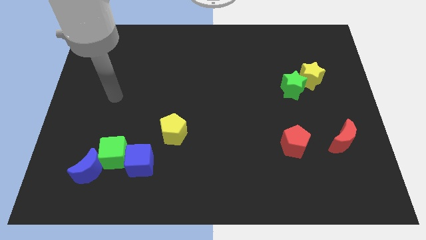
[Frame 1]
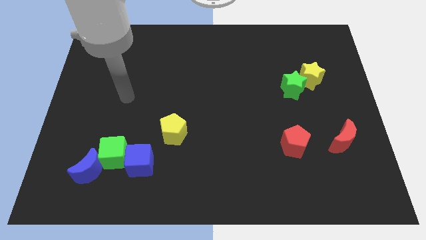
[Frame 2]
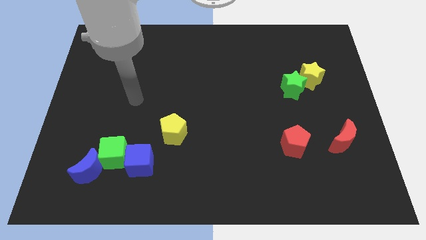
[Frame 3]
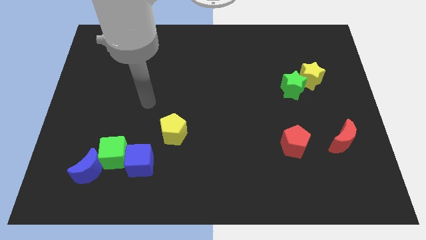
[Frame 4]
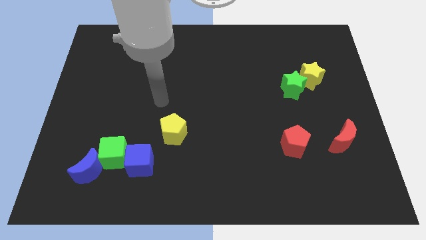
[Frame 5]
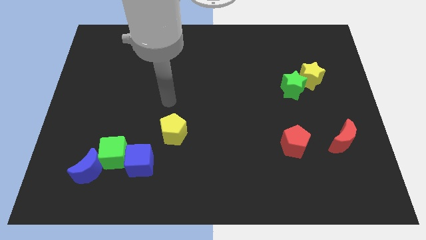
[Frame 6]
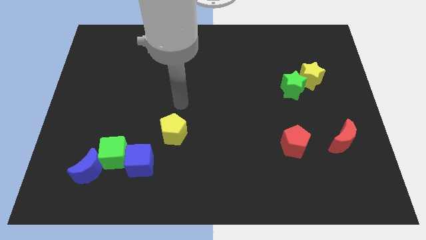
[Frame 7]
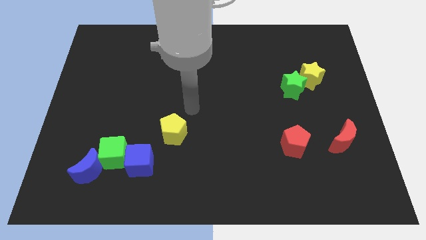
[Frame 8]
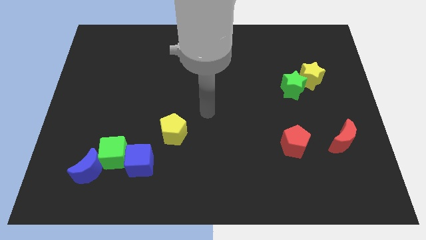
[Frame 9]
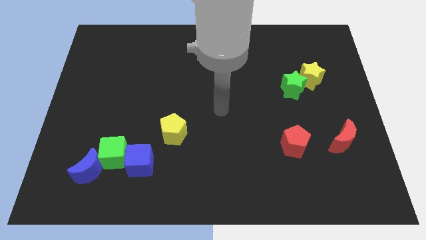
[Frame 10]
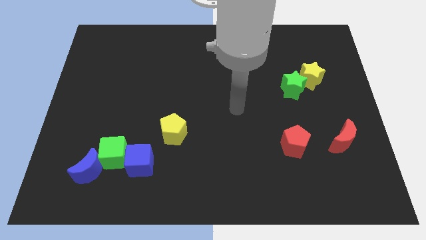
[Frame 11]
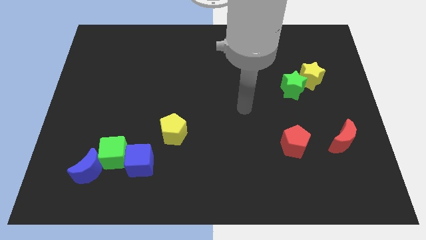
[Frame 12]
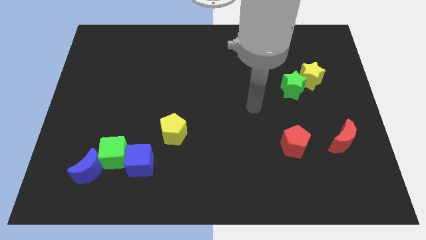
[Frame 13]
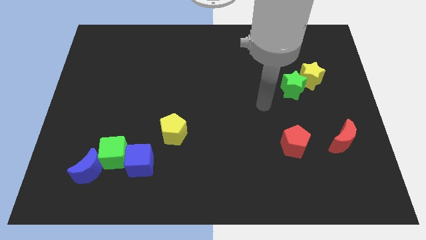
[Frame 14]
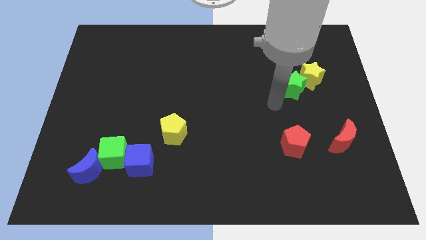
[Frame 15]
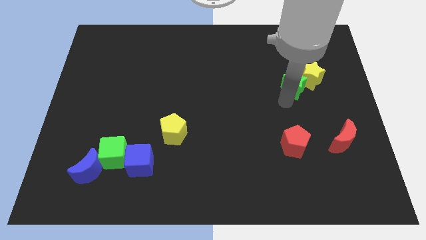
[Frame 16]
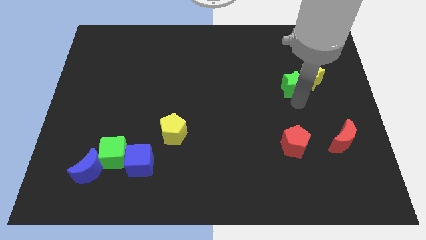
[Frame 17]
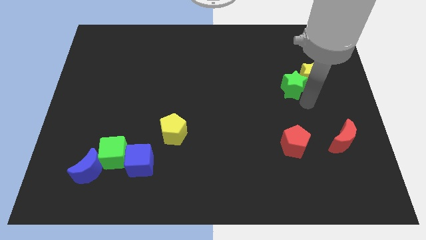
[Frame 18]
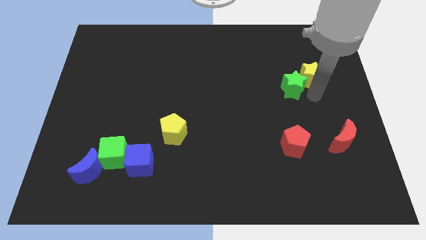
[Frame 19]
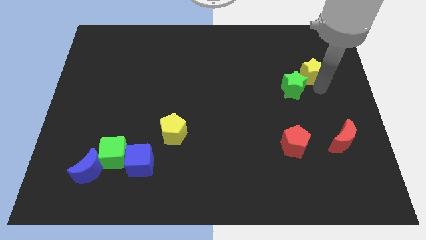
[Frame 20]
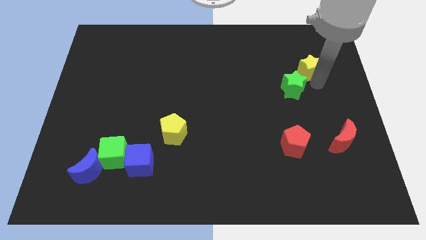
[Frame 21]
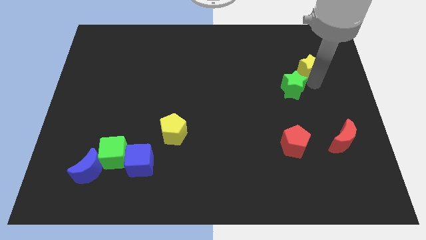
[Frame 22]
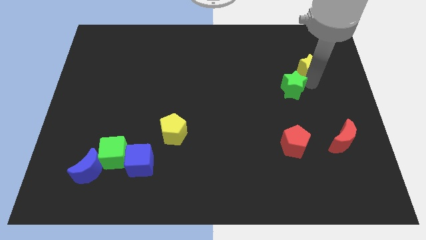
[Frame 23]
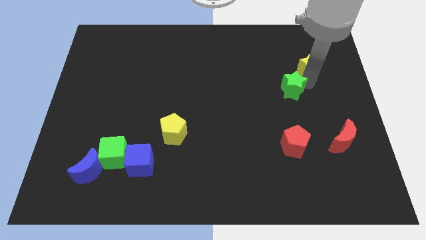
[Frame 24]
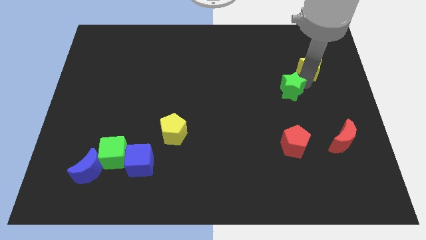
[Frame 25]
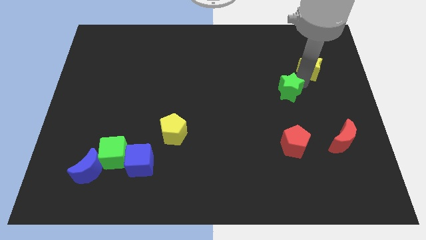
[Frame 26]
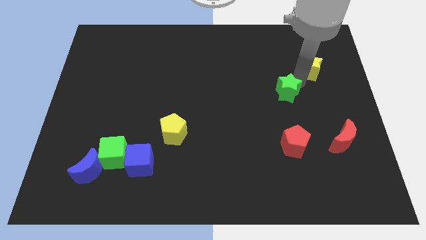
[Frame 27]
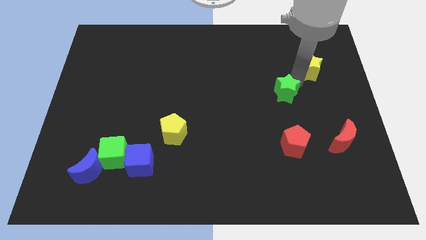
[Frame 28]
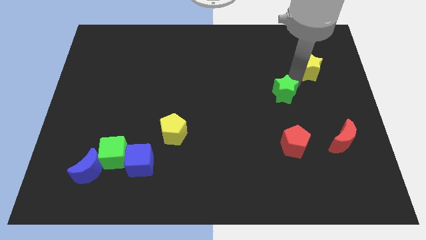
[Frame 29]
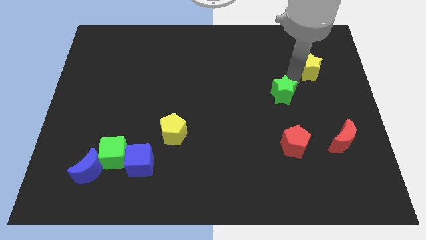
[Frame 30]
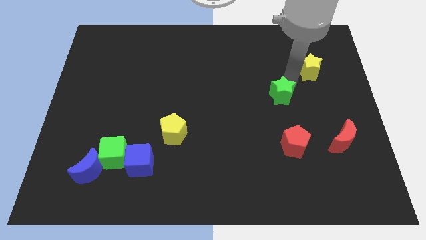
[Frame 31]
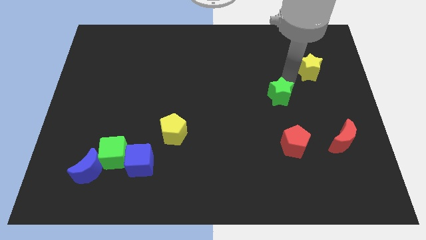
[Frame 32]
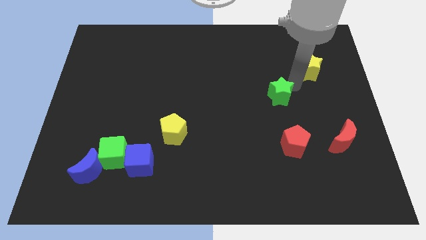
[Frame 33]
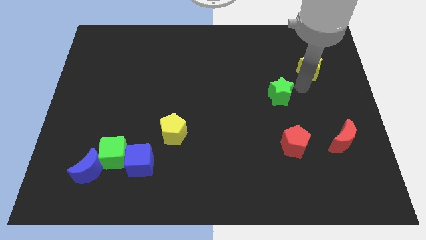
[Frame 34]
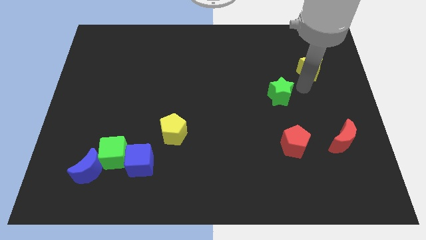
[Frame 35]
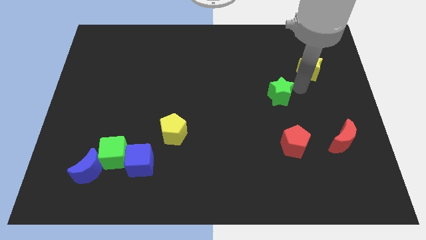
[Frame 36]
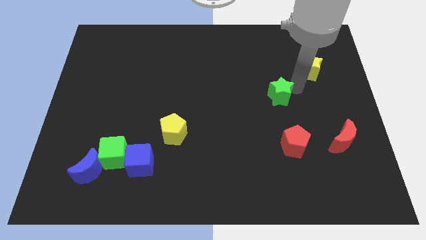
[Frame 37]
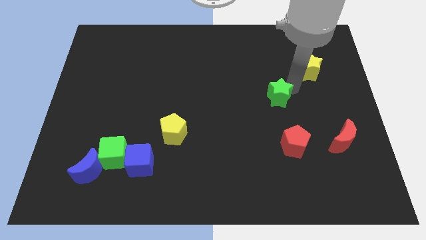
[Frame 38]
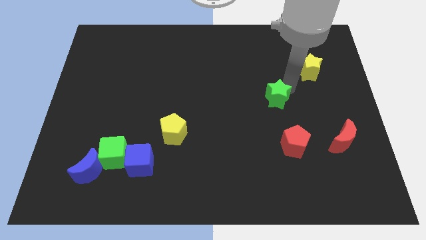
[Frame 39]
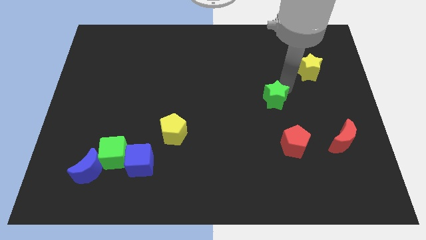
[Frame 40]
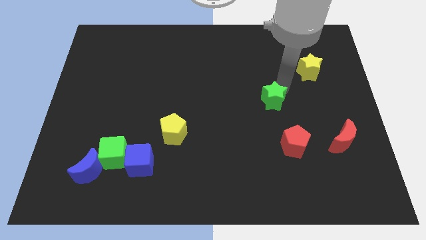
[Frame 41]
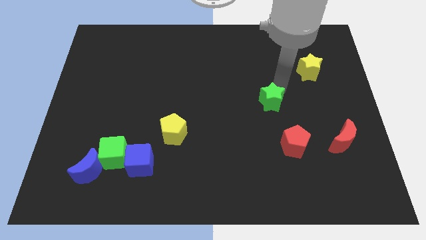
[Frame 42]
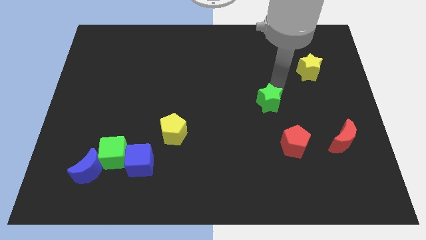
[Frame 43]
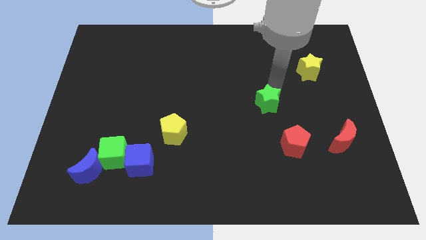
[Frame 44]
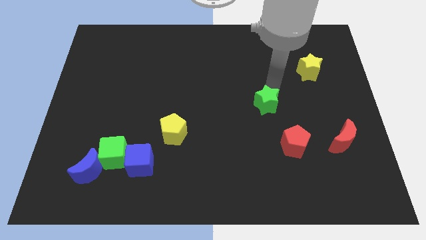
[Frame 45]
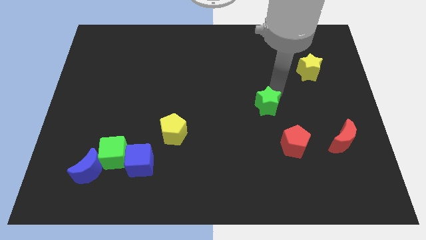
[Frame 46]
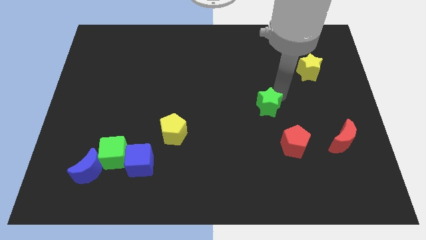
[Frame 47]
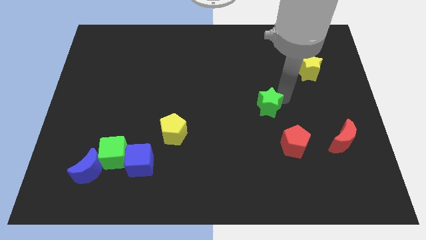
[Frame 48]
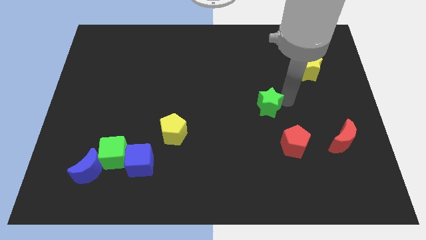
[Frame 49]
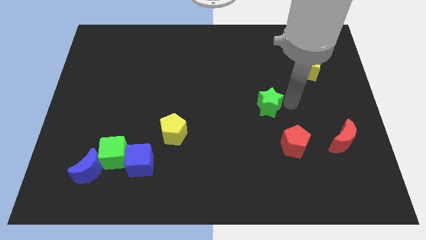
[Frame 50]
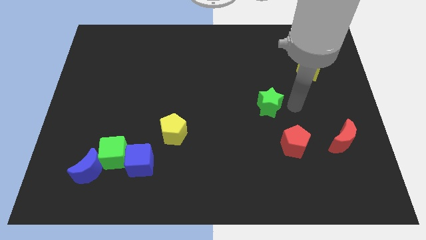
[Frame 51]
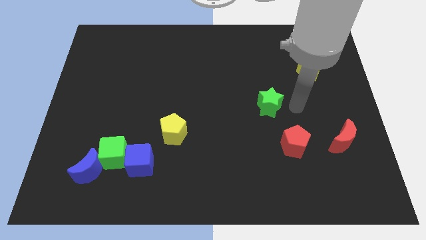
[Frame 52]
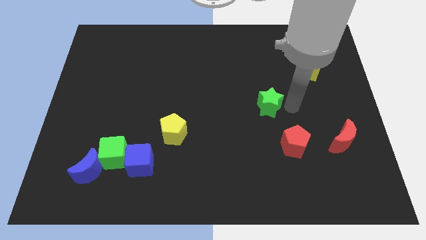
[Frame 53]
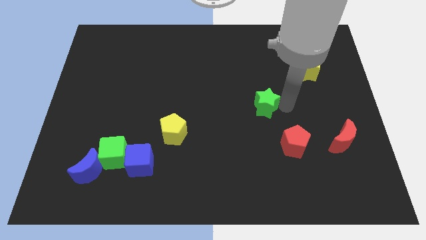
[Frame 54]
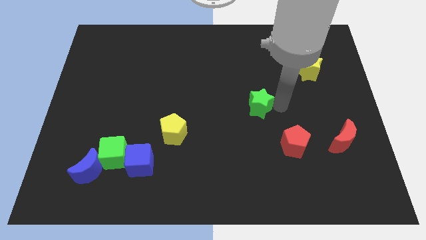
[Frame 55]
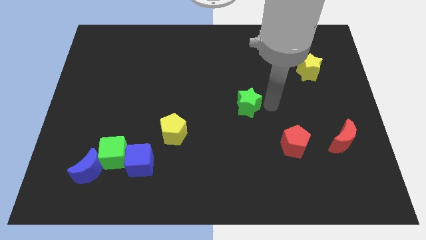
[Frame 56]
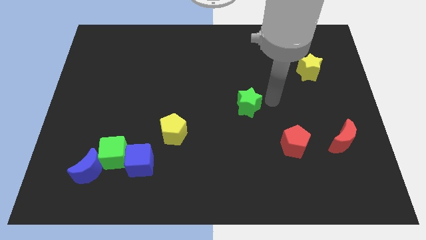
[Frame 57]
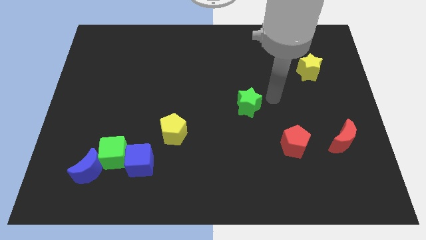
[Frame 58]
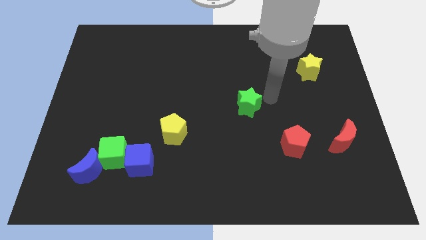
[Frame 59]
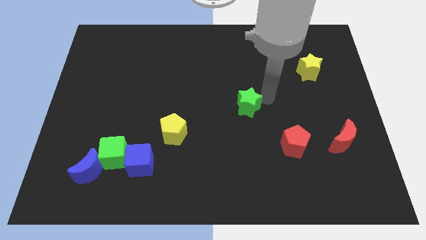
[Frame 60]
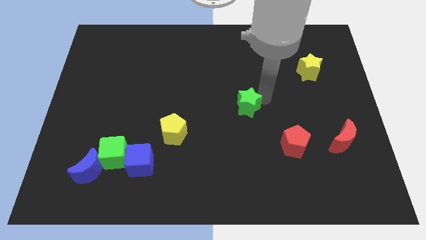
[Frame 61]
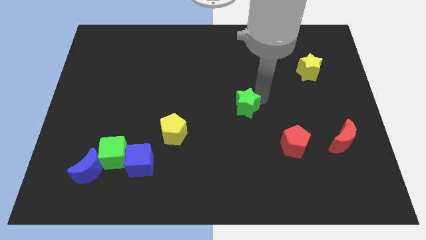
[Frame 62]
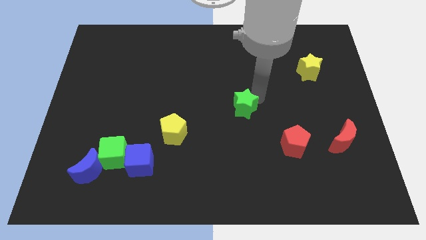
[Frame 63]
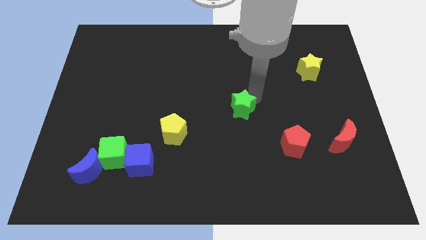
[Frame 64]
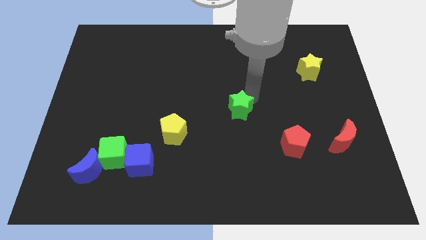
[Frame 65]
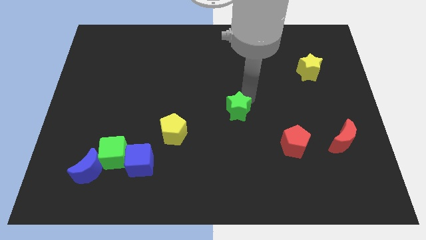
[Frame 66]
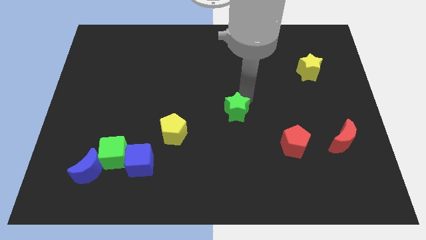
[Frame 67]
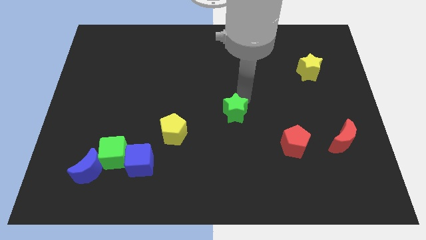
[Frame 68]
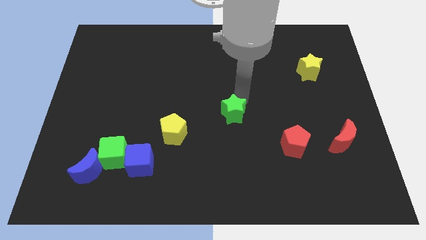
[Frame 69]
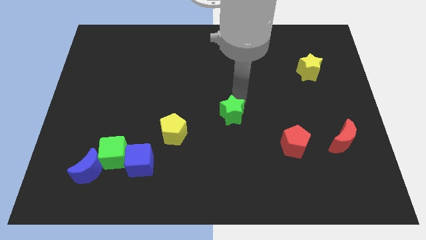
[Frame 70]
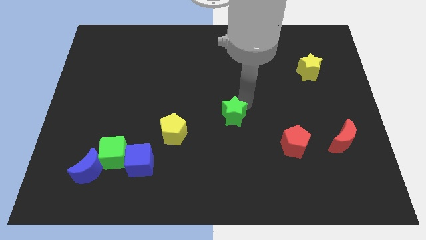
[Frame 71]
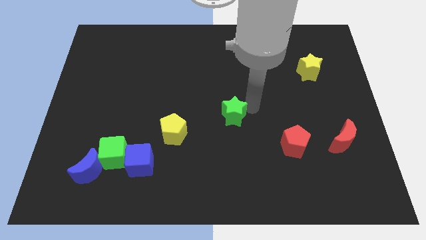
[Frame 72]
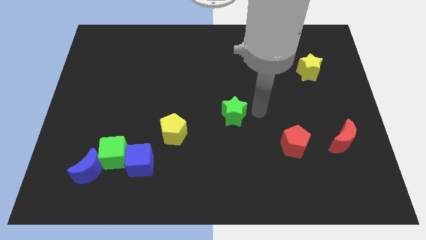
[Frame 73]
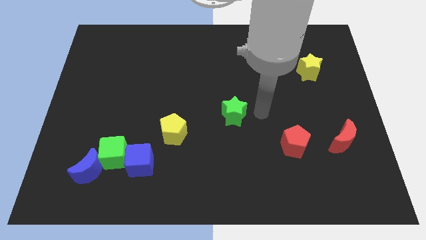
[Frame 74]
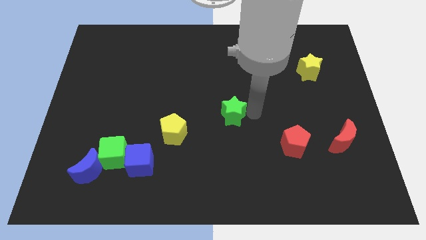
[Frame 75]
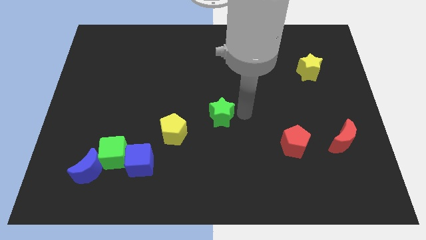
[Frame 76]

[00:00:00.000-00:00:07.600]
slide the green star to the top right of the yellow pentagon
